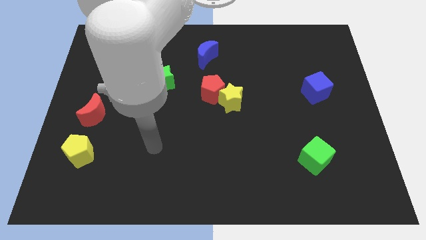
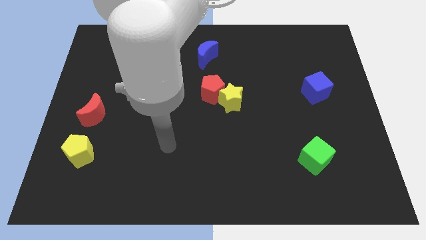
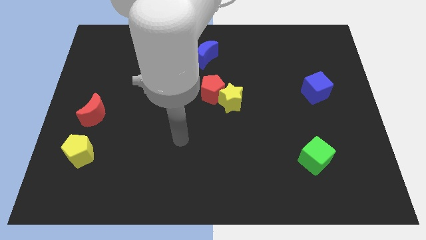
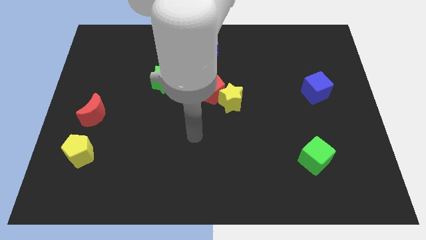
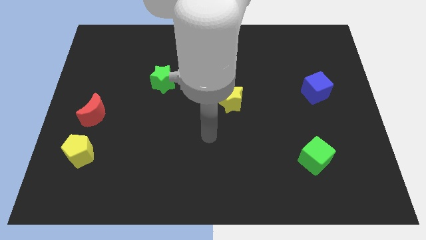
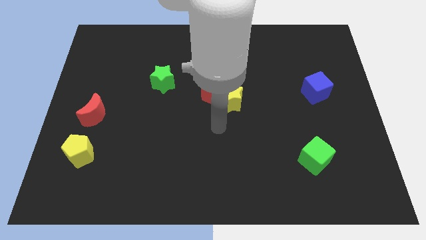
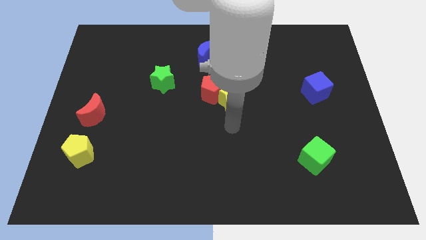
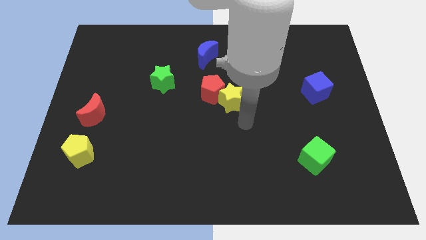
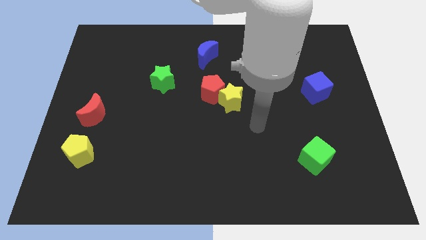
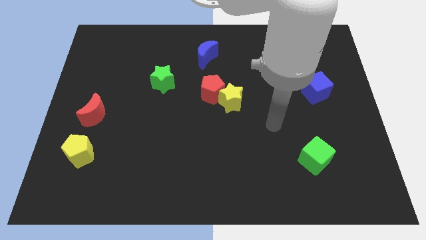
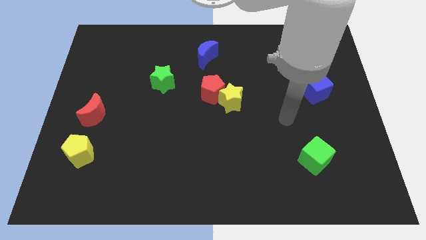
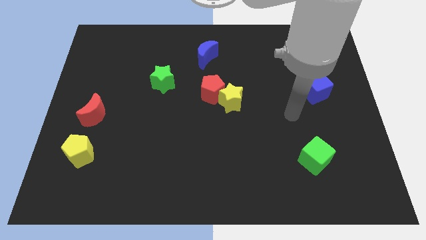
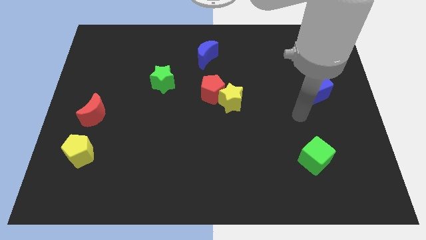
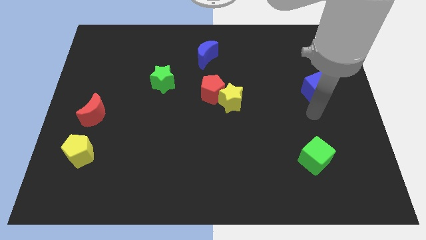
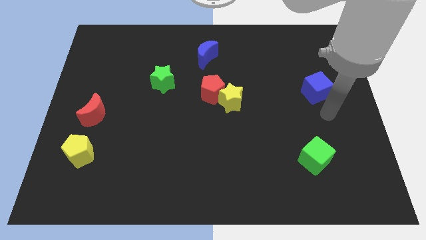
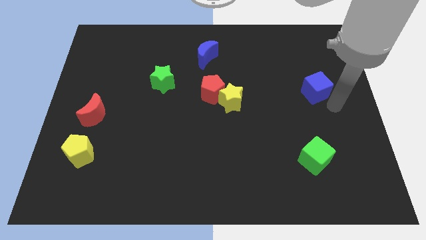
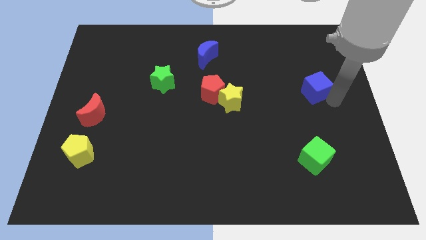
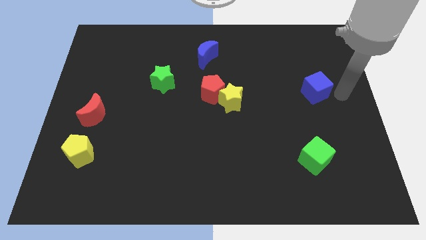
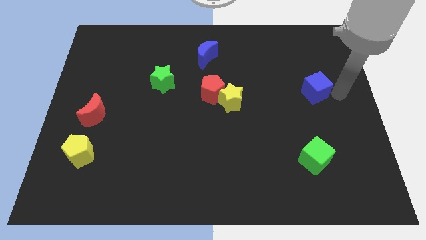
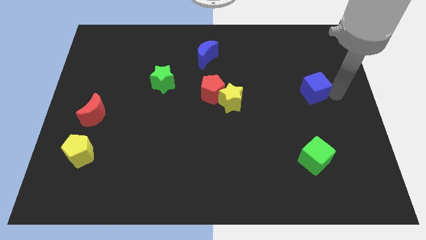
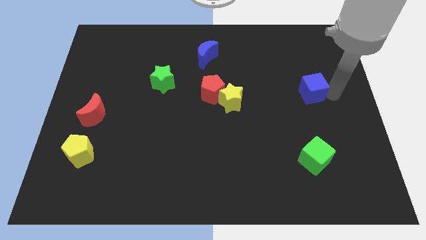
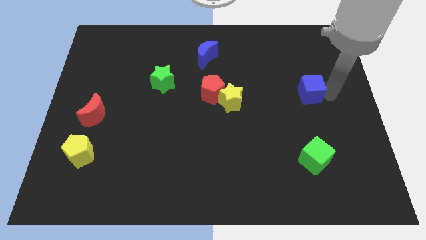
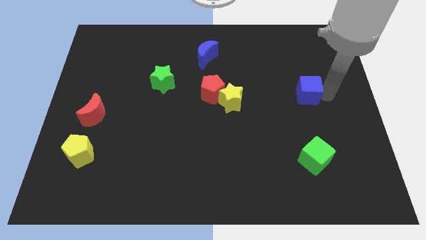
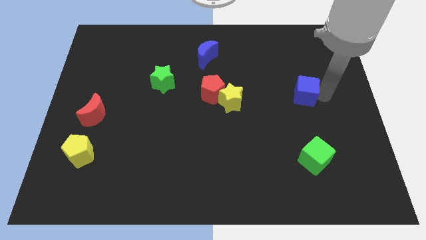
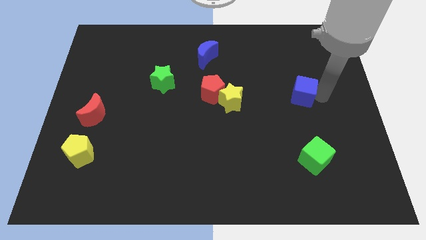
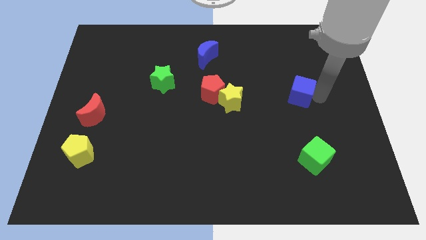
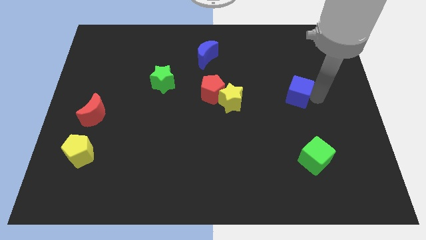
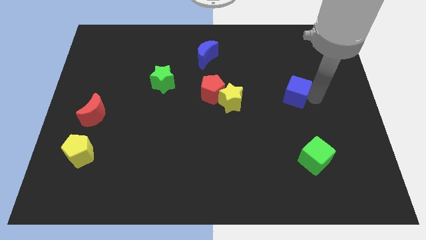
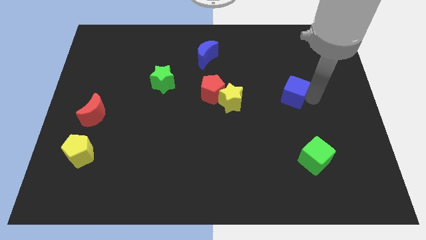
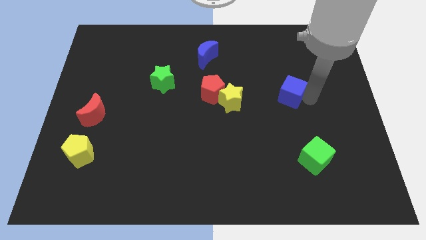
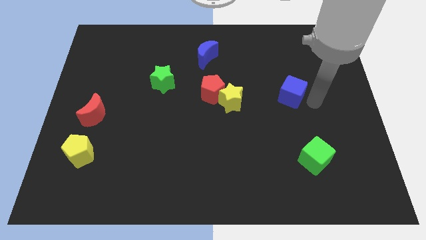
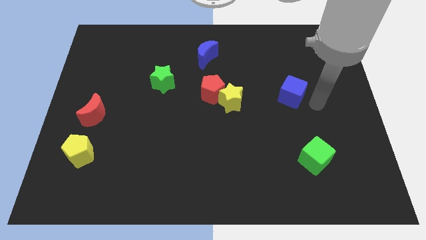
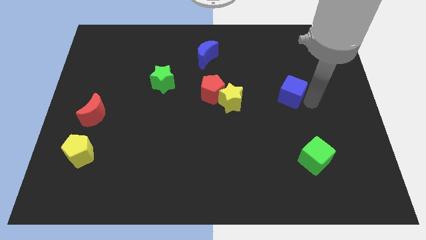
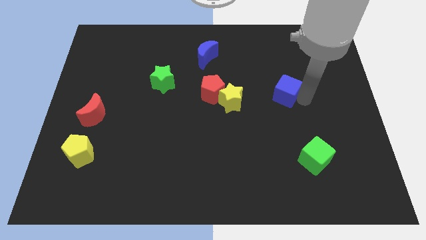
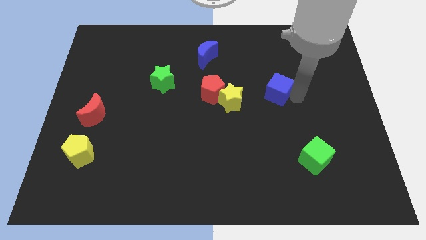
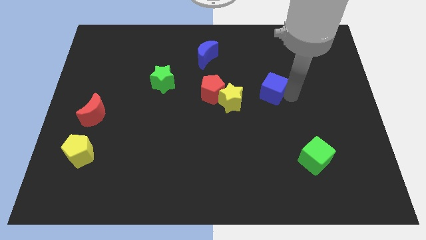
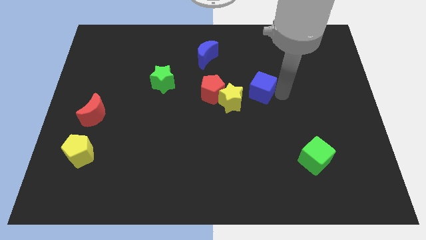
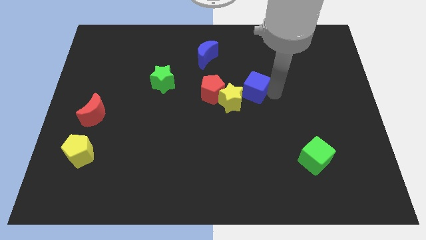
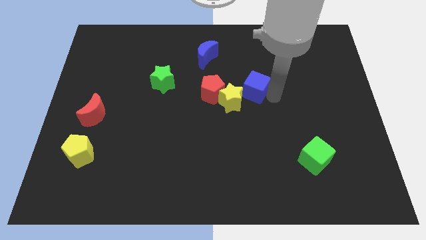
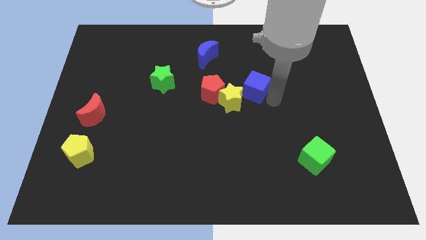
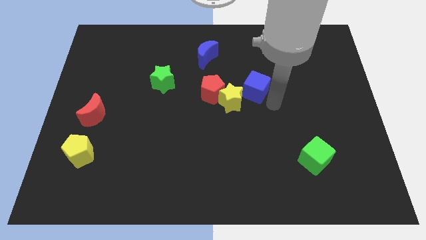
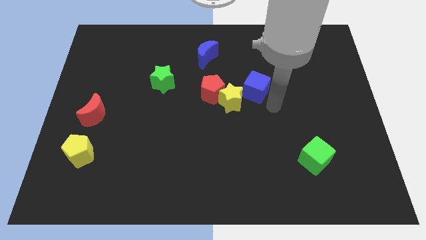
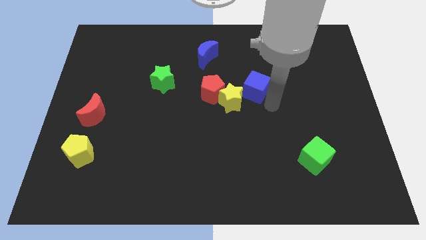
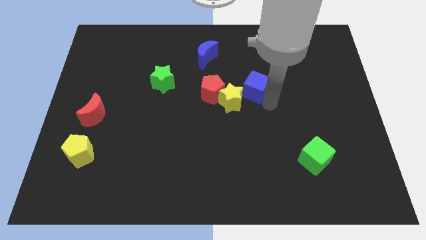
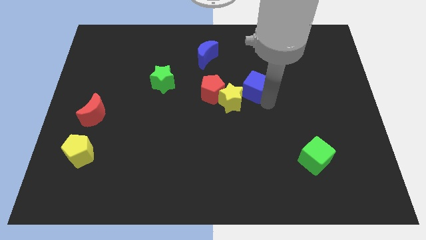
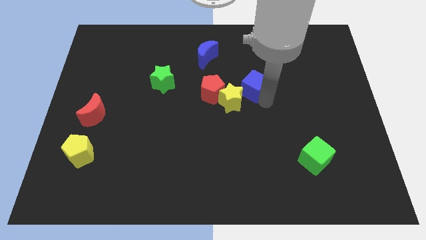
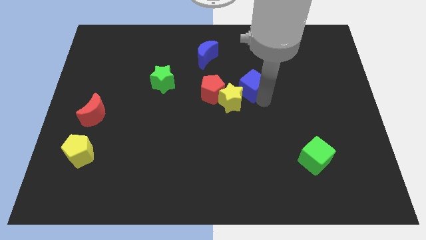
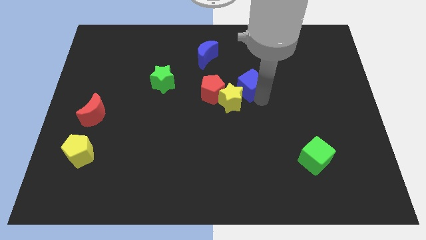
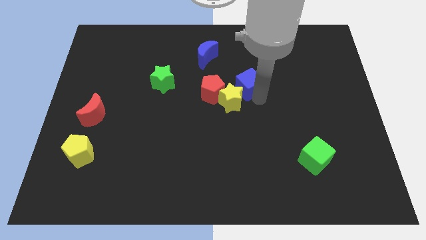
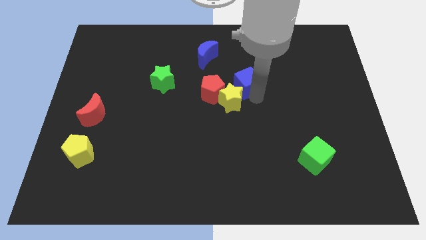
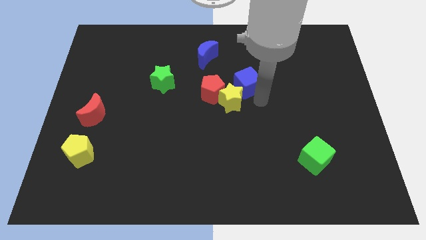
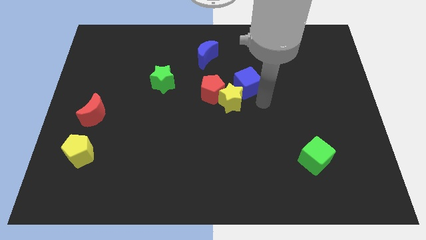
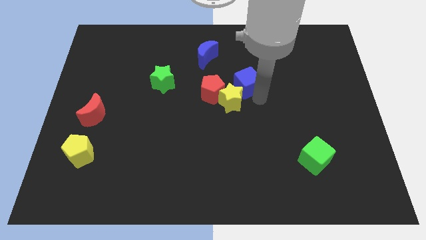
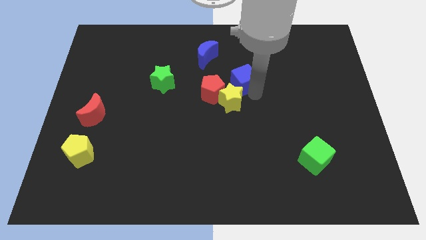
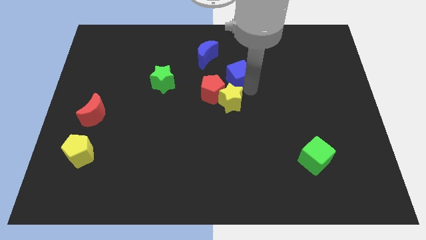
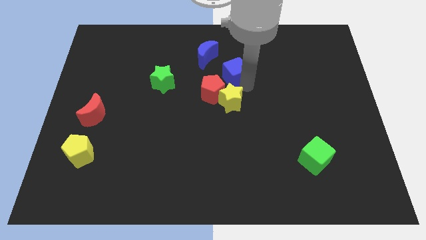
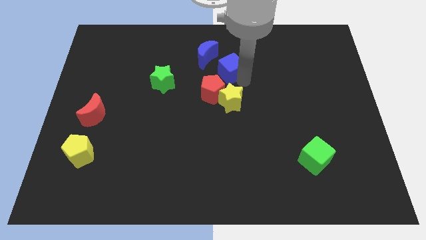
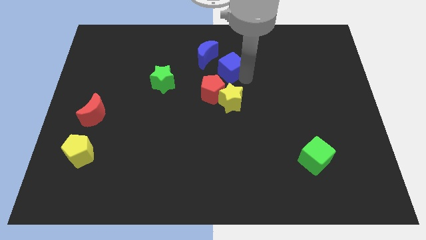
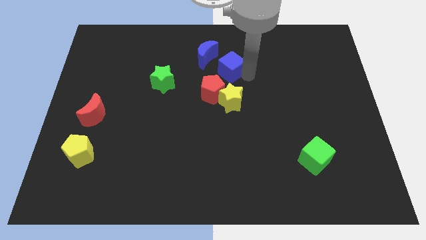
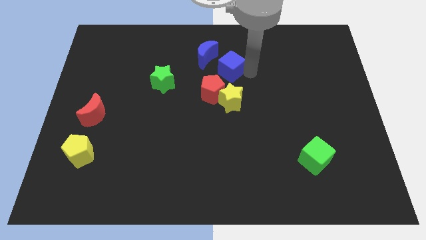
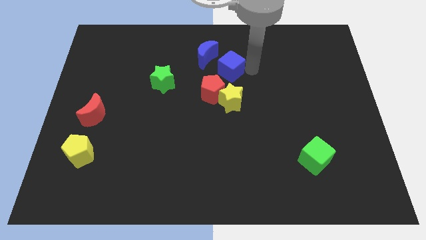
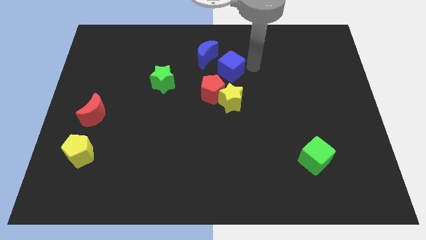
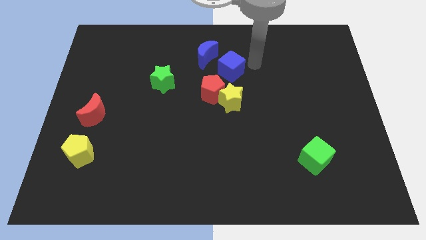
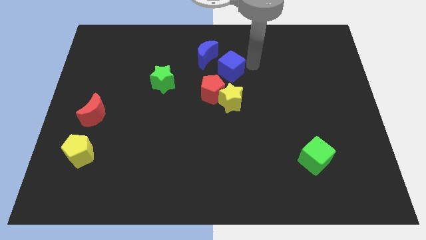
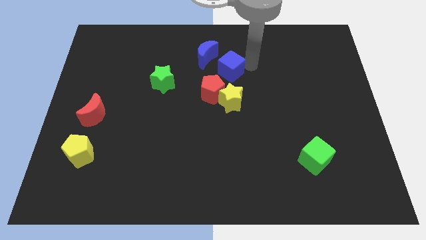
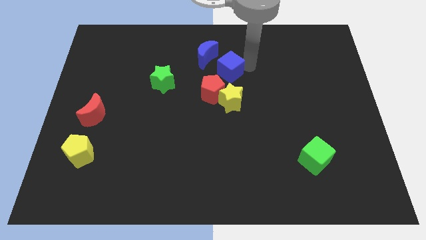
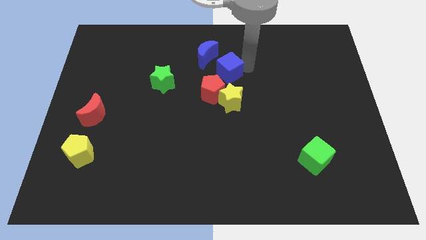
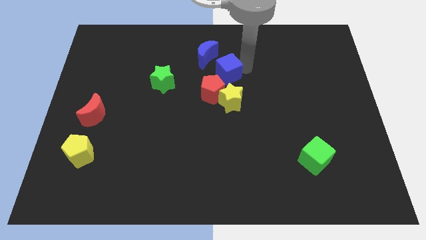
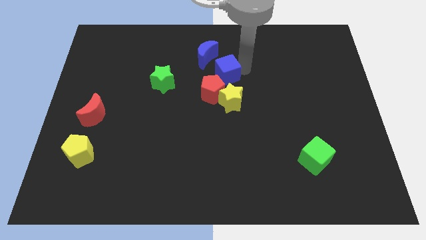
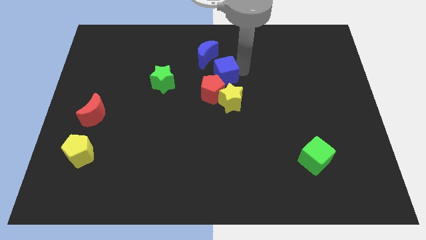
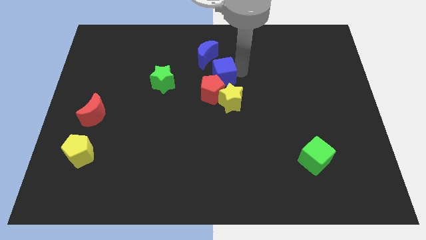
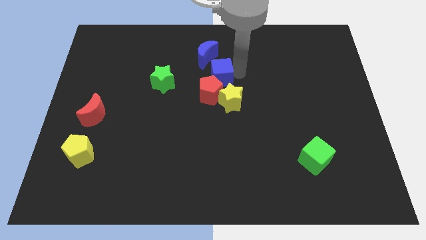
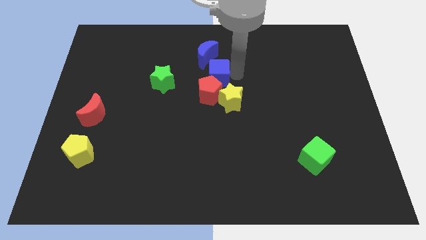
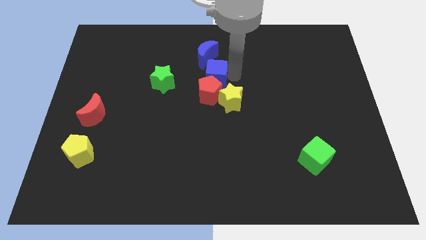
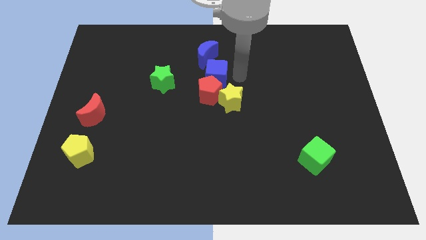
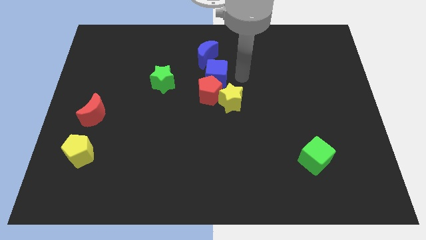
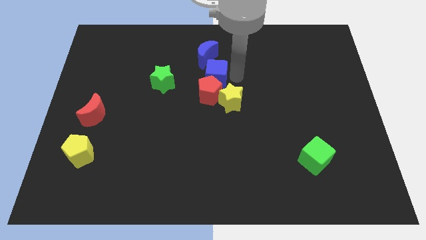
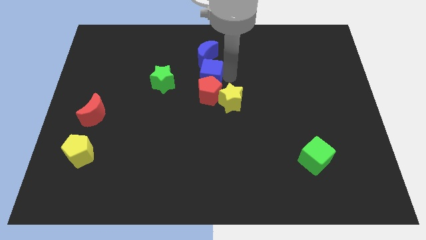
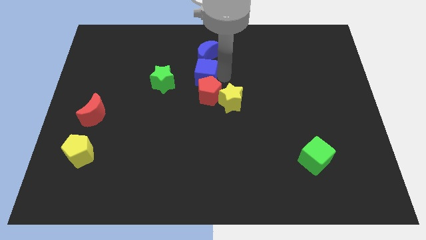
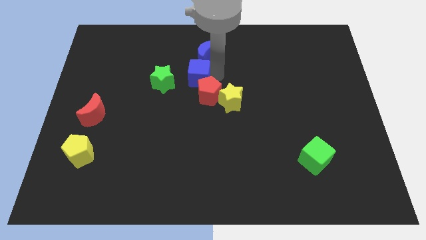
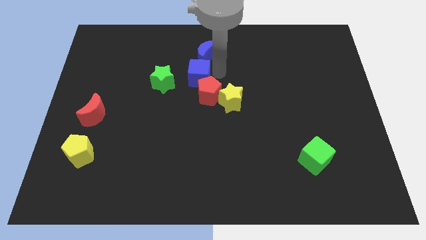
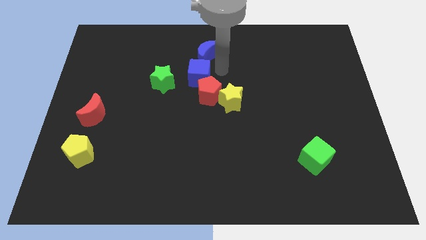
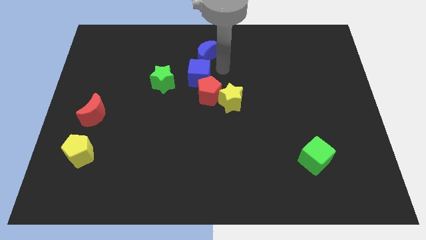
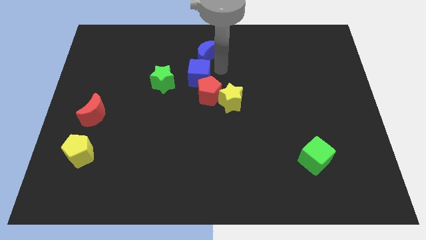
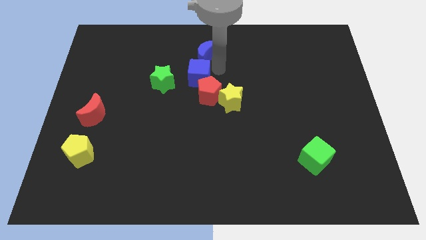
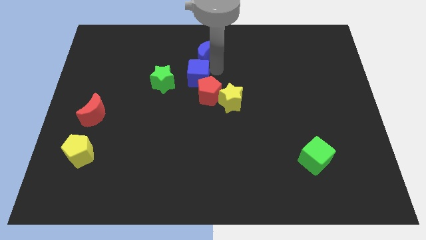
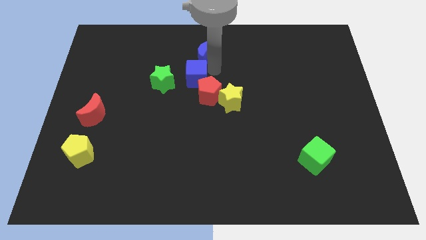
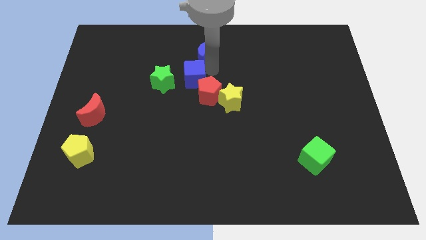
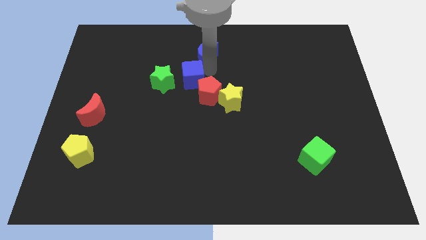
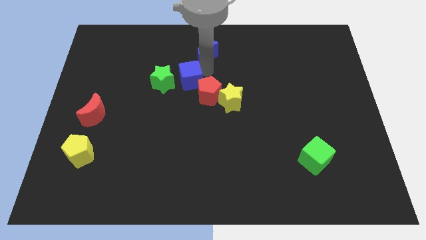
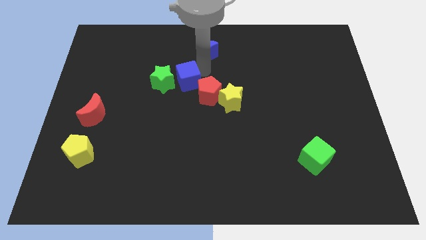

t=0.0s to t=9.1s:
push the blue cube towards the green star
